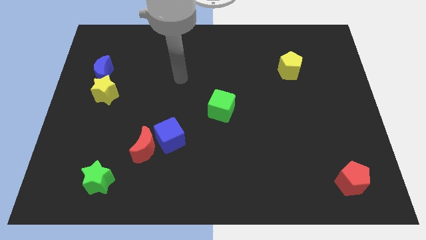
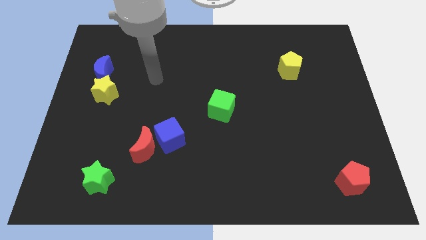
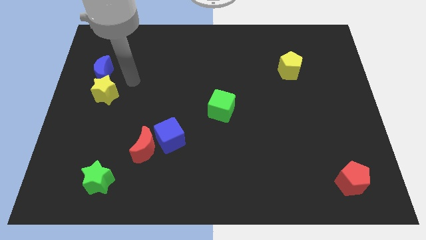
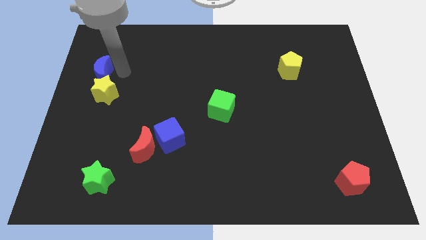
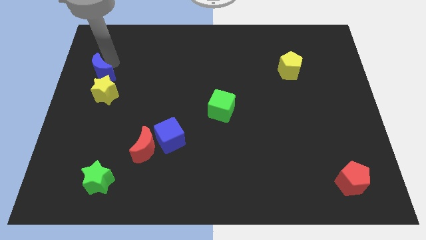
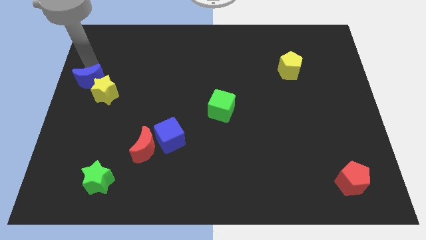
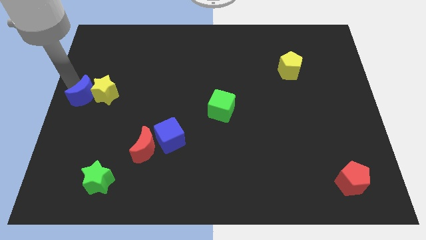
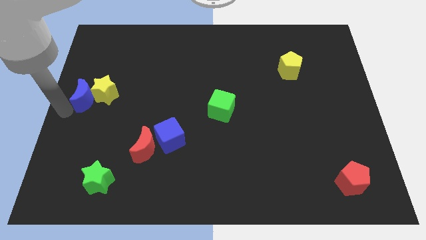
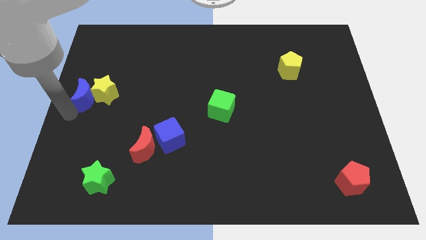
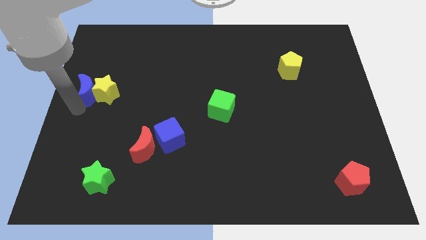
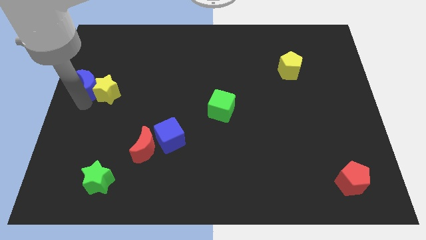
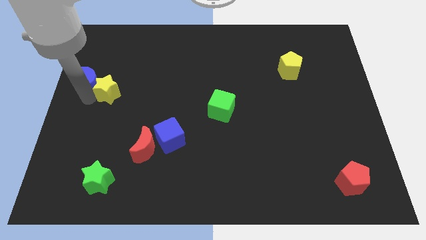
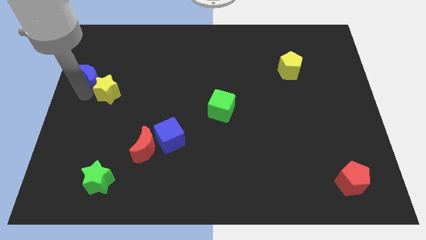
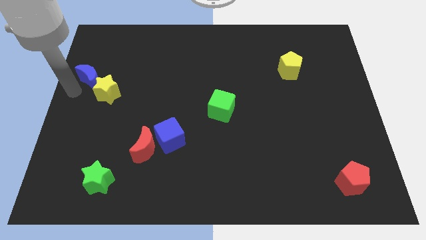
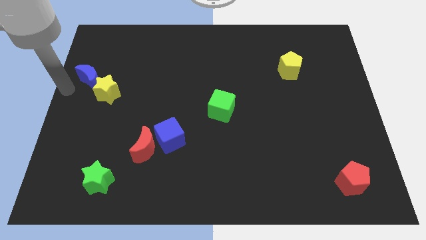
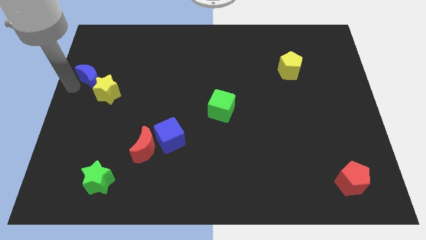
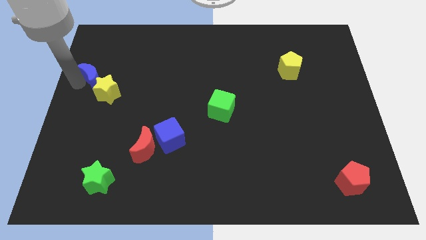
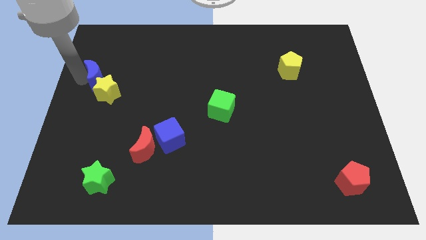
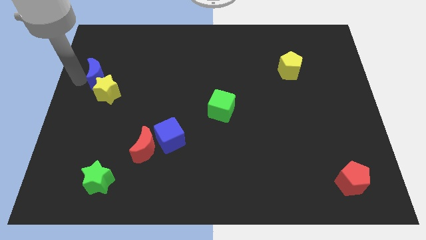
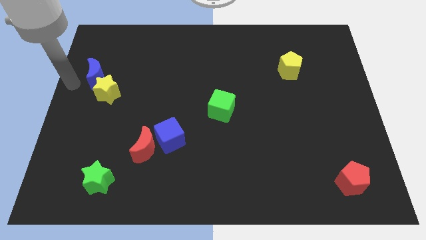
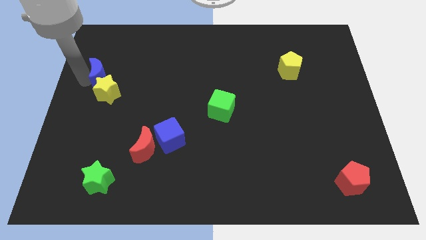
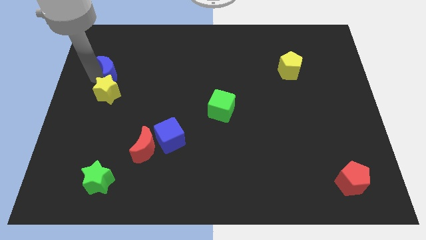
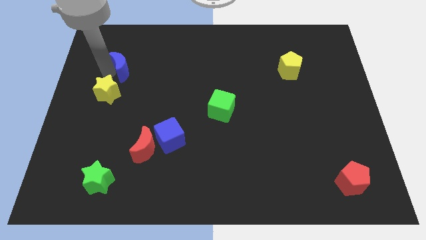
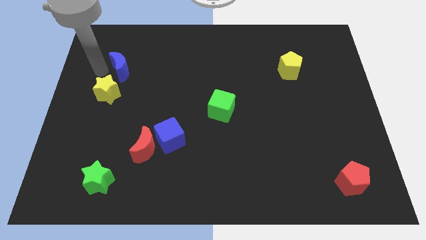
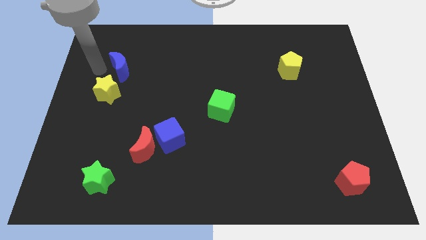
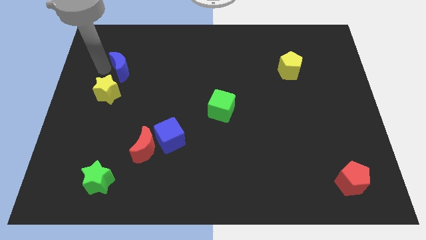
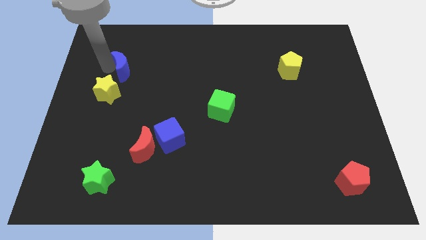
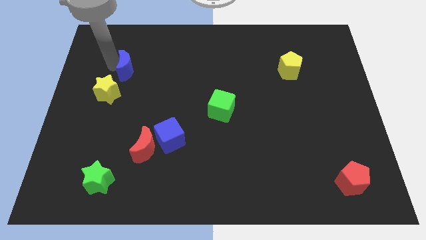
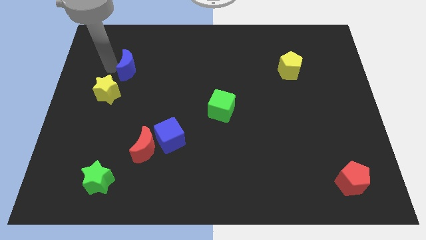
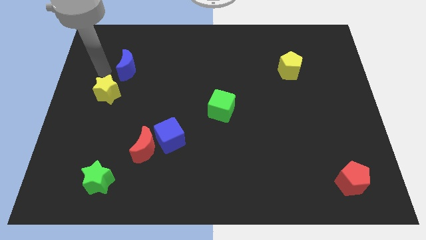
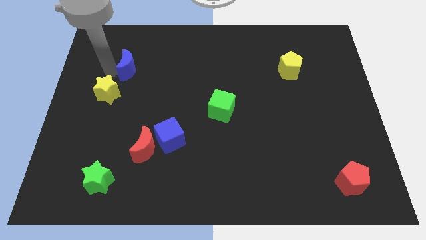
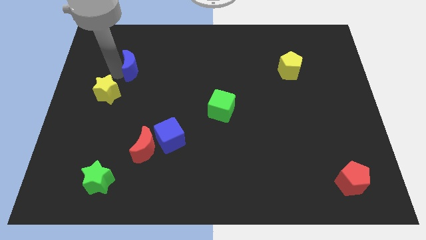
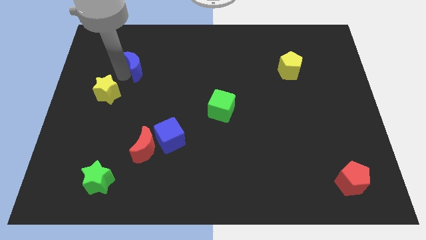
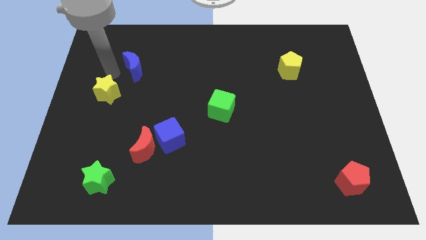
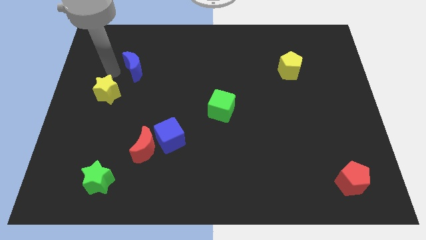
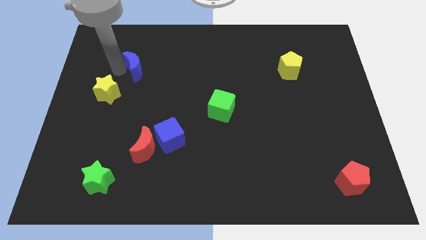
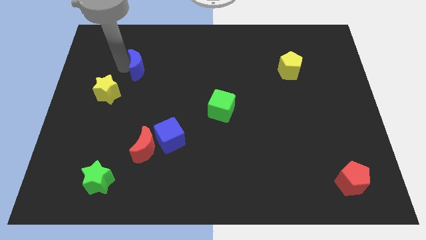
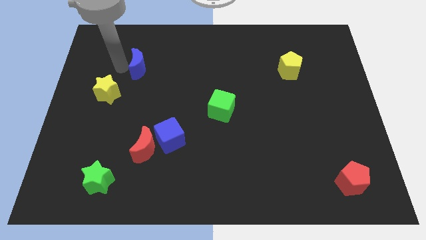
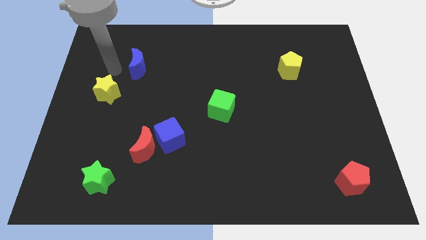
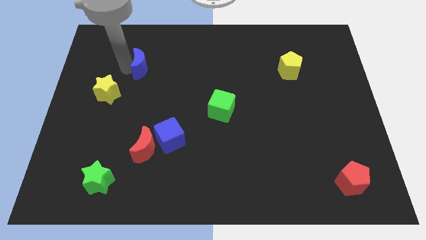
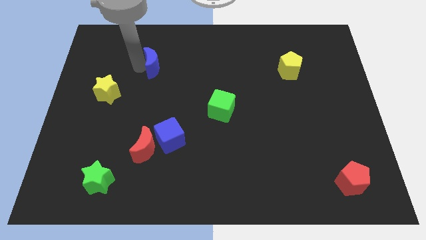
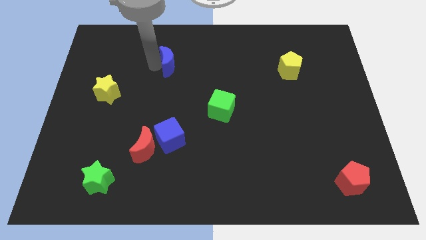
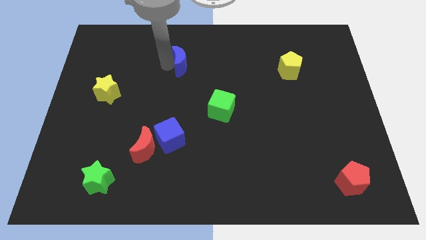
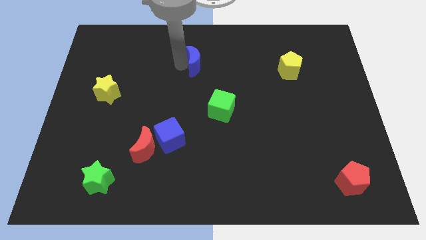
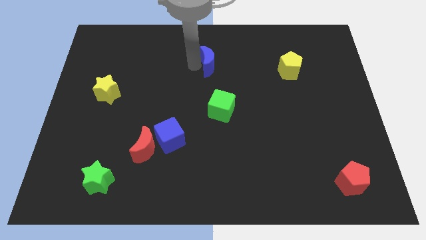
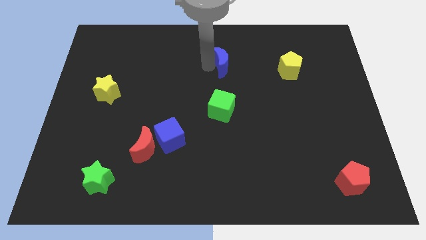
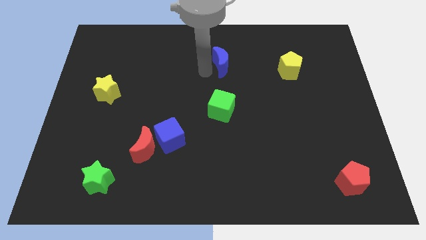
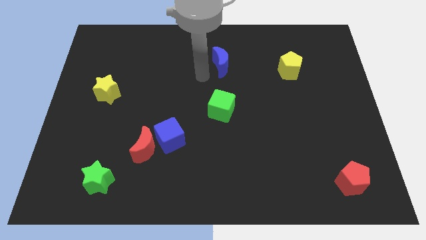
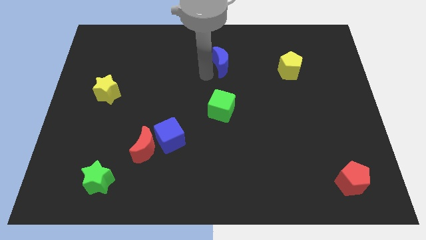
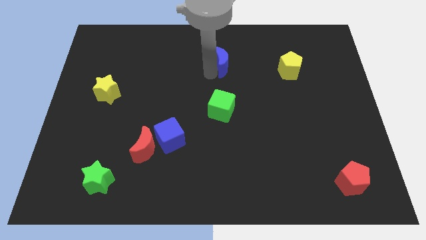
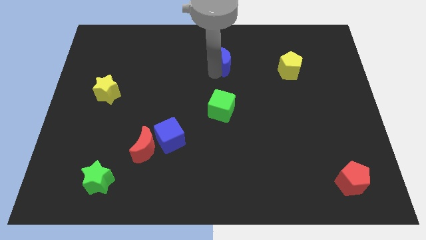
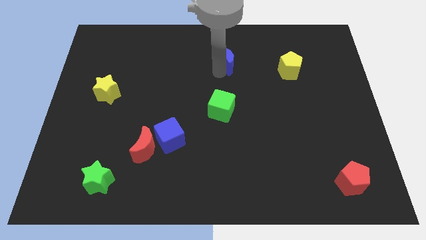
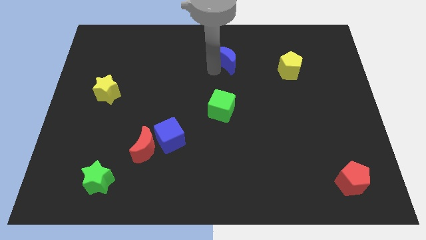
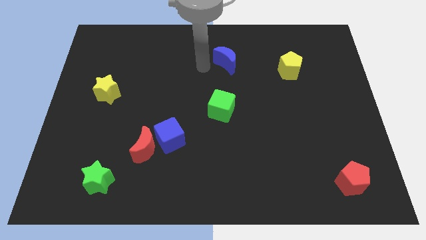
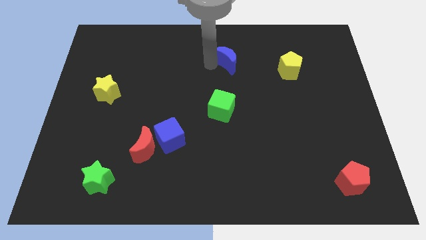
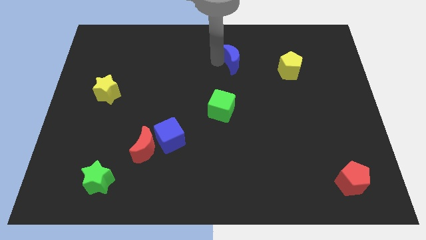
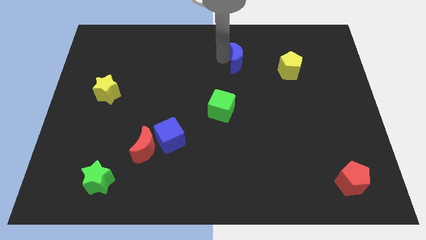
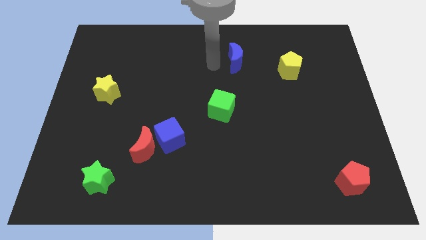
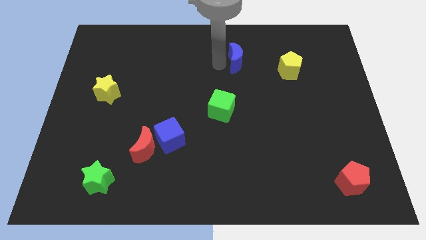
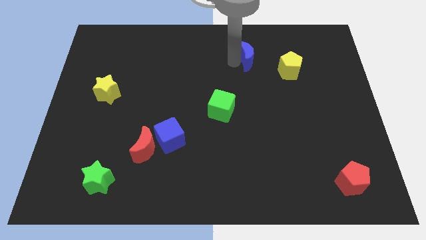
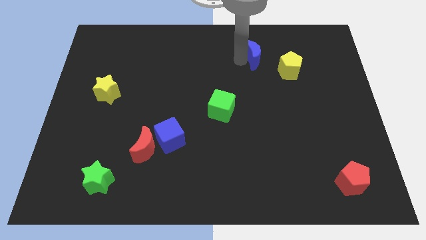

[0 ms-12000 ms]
put the blue moon diagonally up and to the left of the yellow pentagon

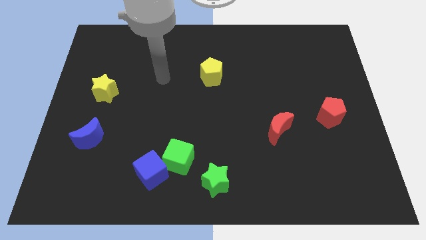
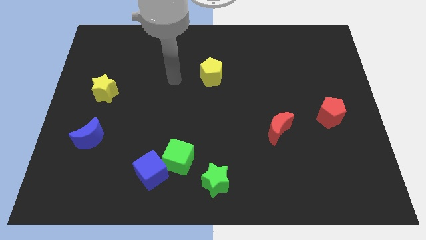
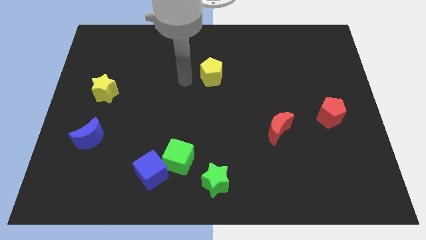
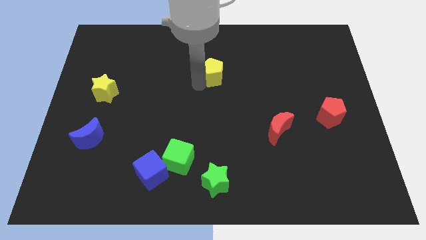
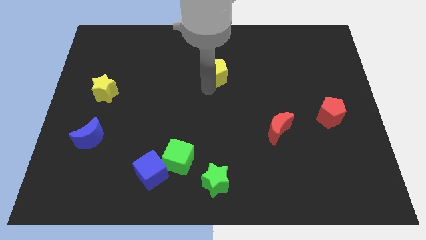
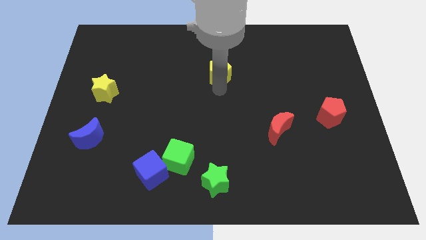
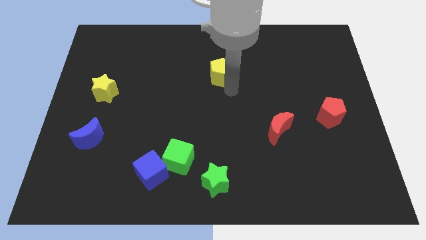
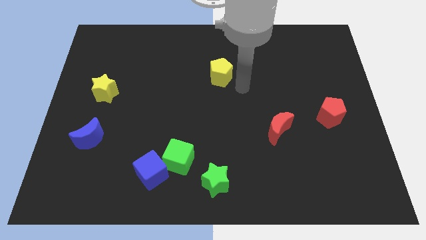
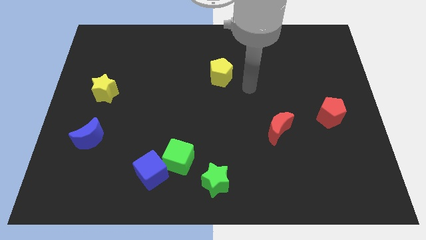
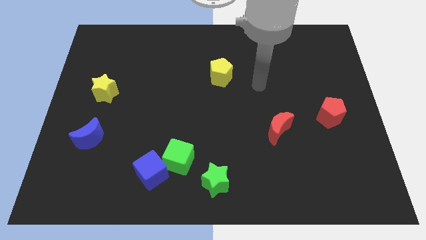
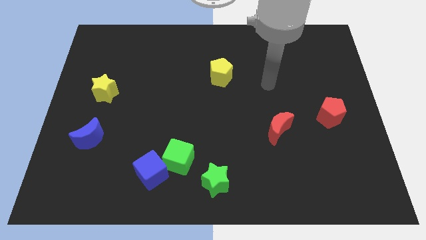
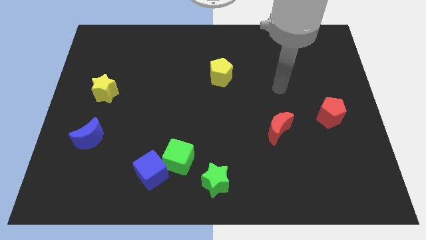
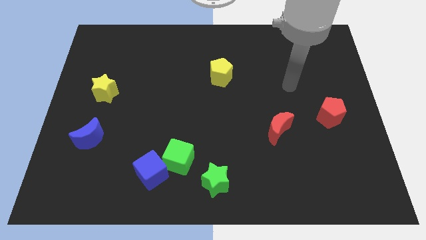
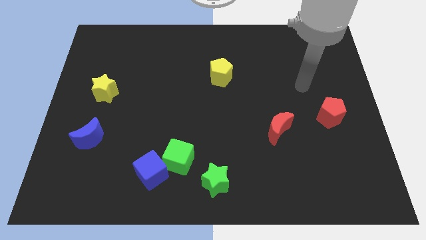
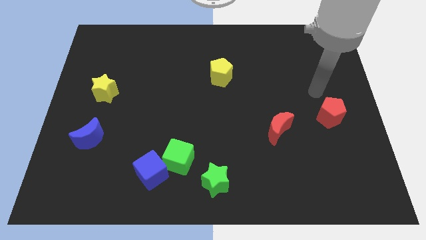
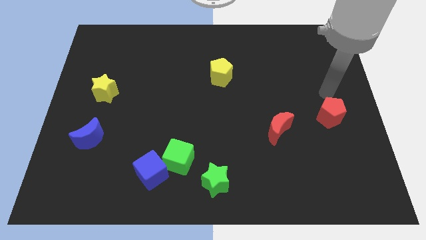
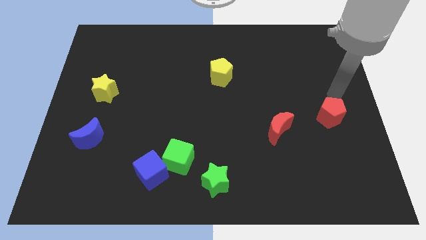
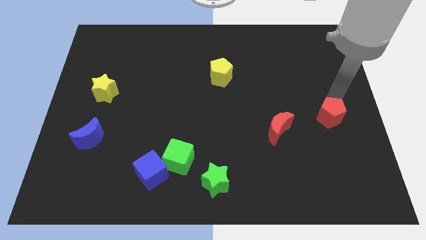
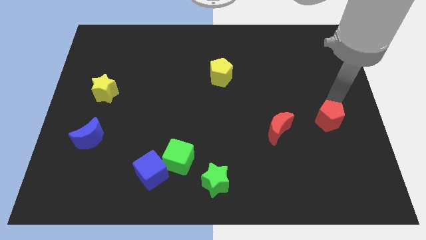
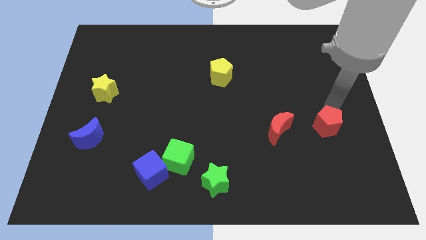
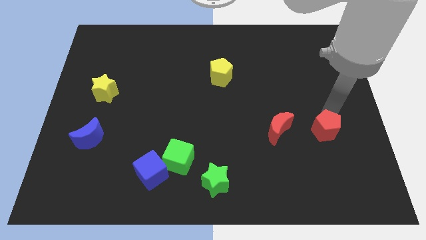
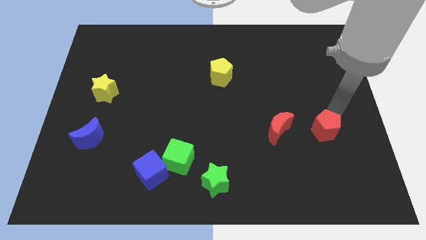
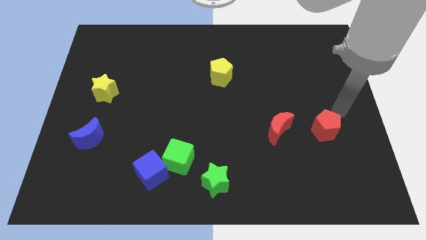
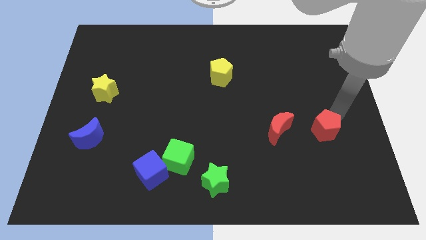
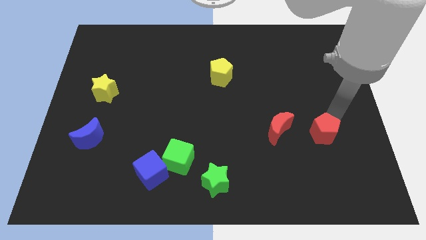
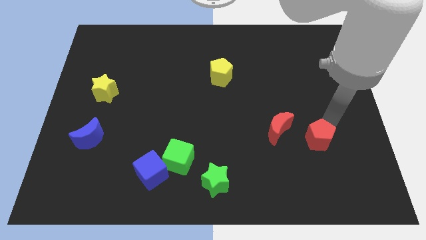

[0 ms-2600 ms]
move the red pentagon to the bottom right of the red moon
